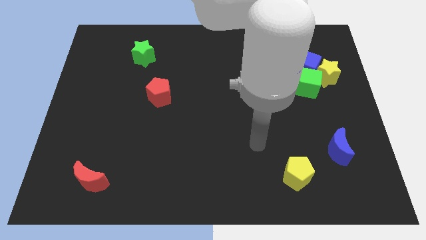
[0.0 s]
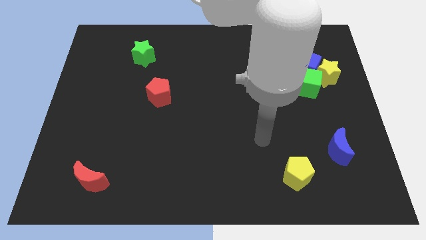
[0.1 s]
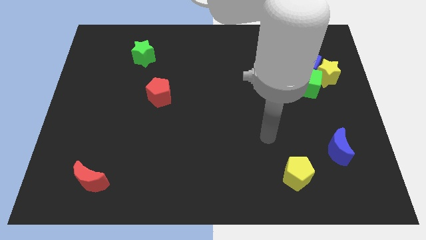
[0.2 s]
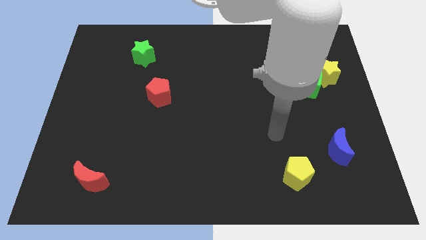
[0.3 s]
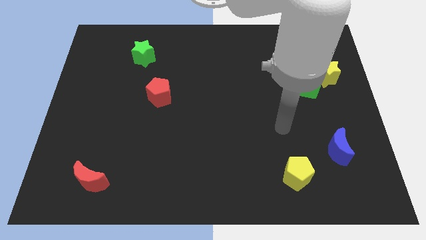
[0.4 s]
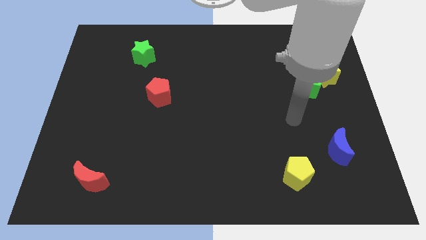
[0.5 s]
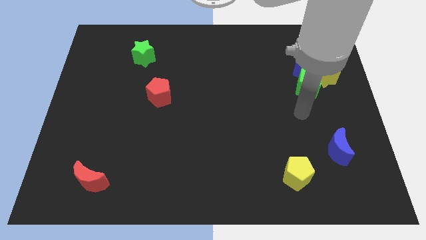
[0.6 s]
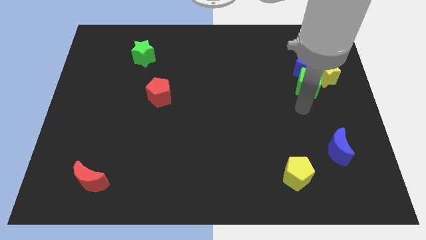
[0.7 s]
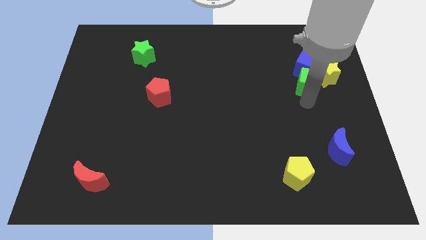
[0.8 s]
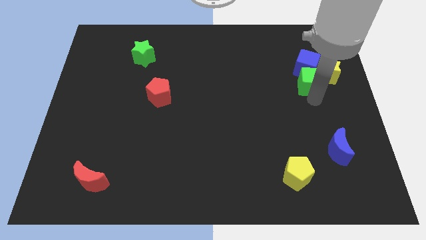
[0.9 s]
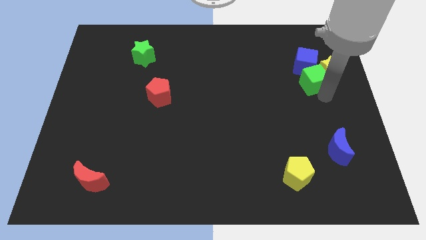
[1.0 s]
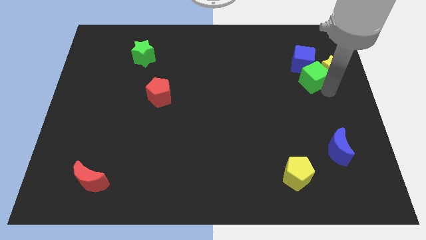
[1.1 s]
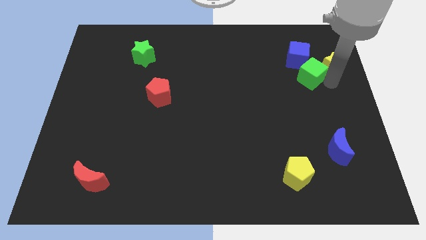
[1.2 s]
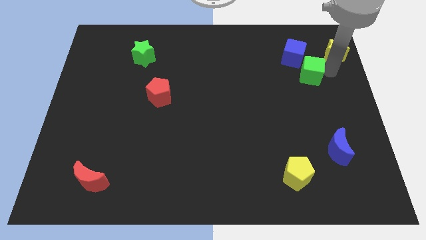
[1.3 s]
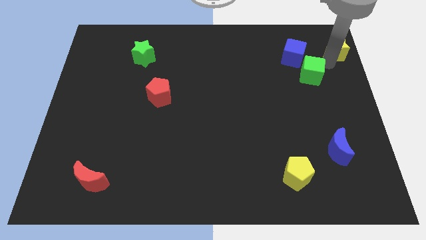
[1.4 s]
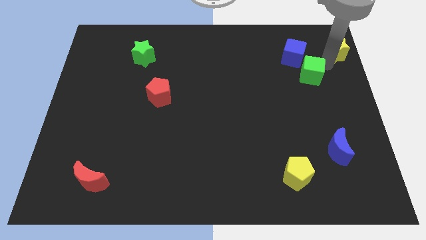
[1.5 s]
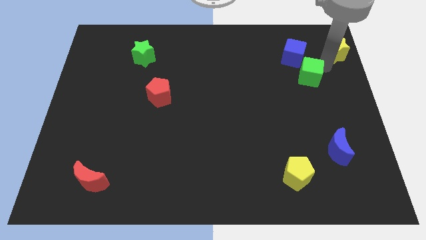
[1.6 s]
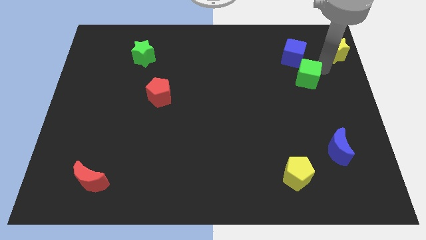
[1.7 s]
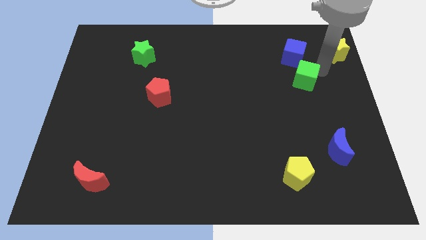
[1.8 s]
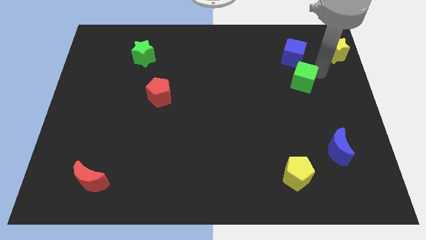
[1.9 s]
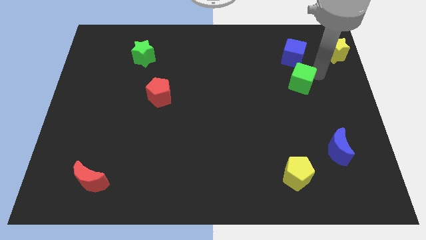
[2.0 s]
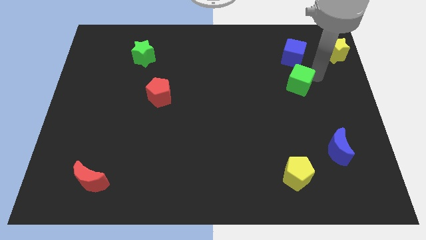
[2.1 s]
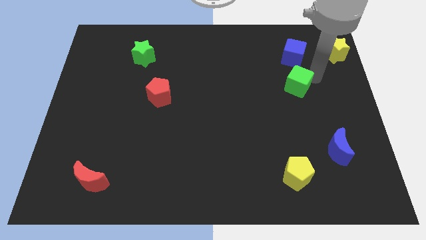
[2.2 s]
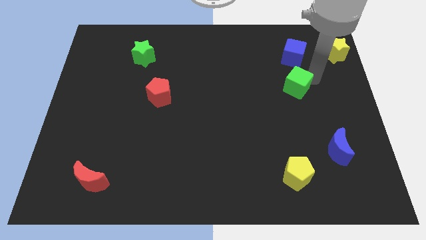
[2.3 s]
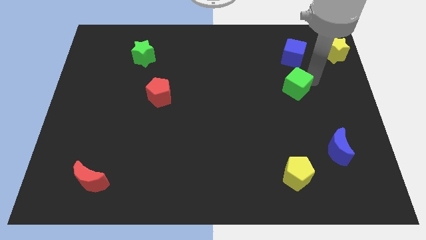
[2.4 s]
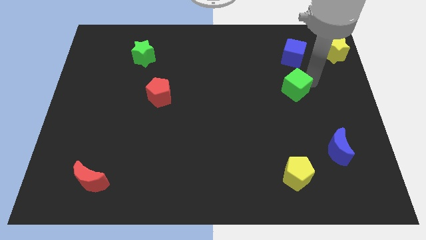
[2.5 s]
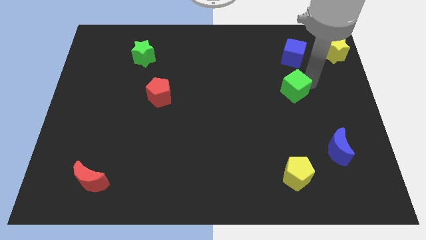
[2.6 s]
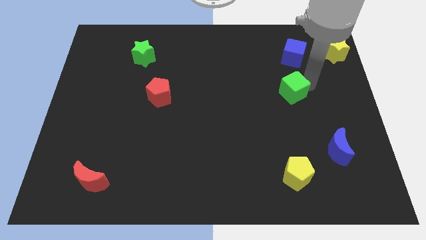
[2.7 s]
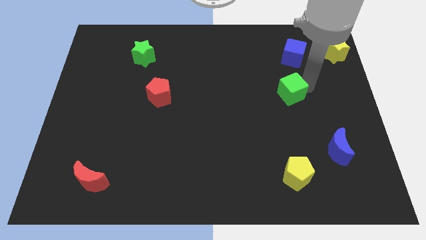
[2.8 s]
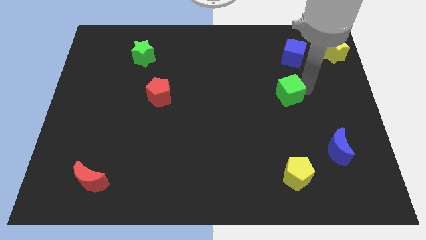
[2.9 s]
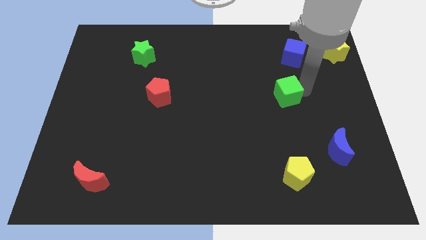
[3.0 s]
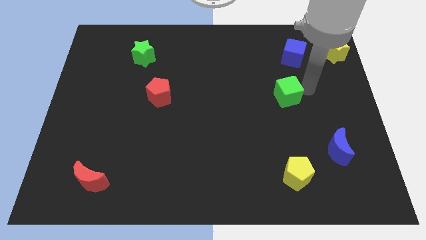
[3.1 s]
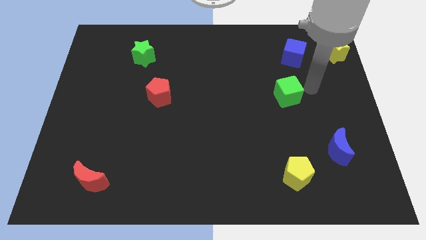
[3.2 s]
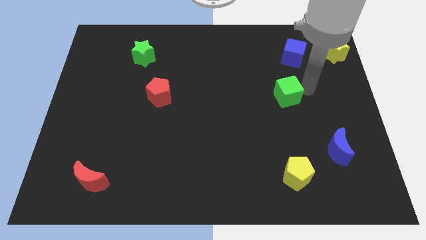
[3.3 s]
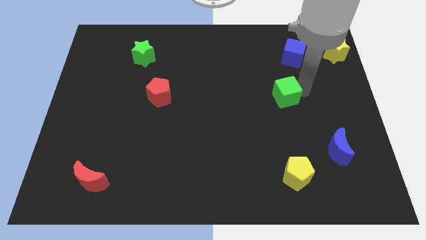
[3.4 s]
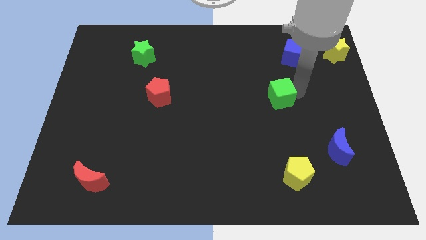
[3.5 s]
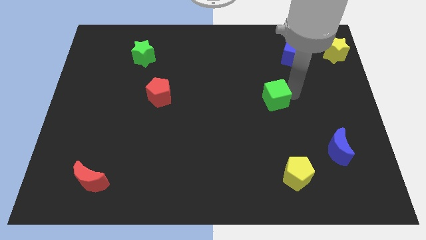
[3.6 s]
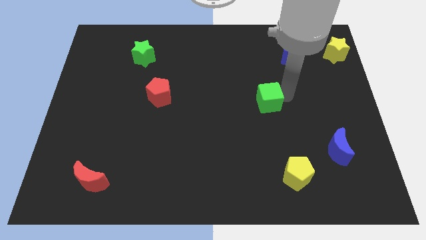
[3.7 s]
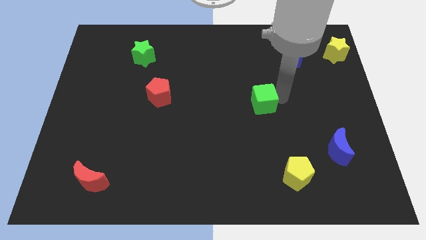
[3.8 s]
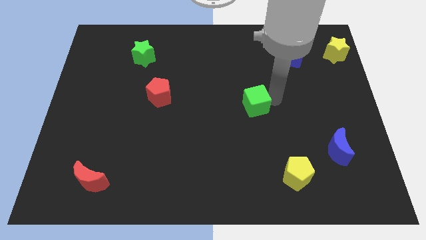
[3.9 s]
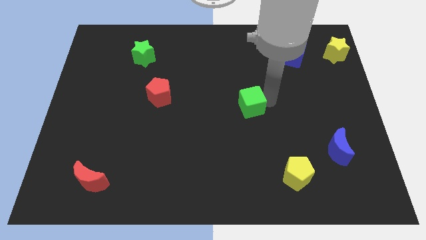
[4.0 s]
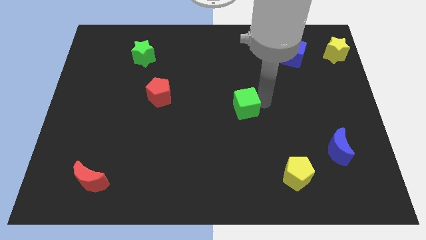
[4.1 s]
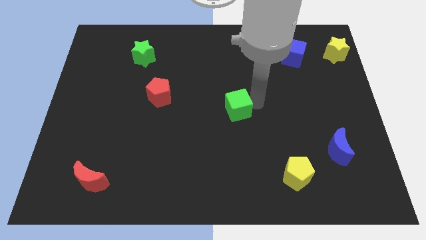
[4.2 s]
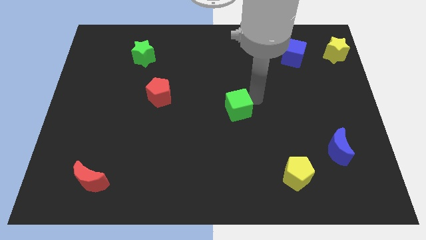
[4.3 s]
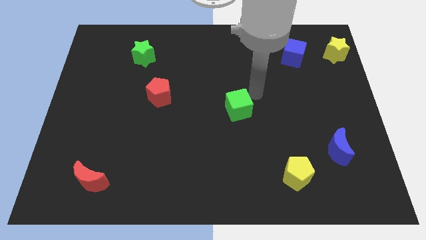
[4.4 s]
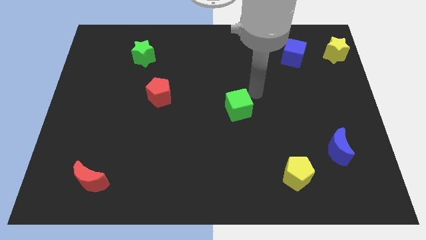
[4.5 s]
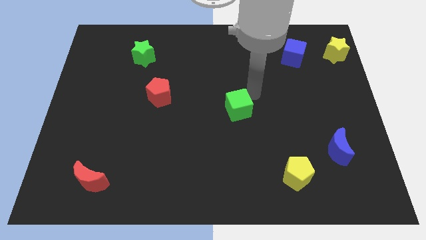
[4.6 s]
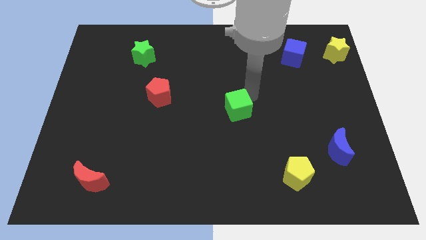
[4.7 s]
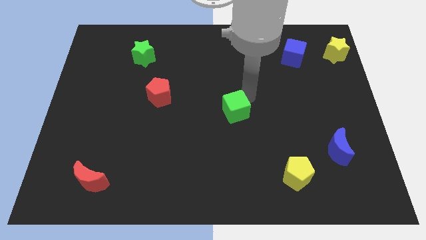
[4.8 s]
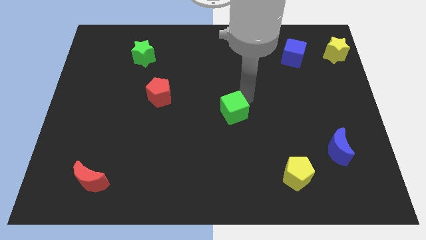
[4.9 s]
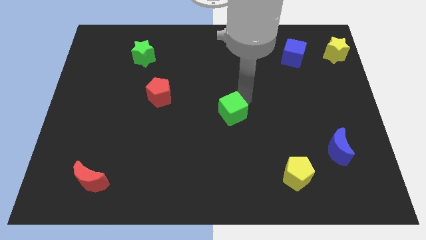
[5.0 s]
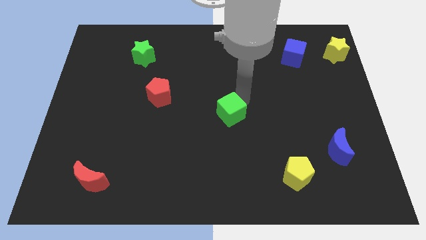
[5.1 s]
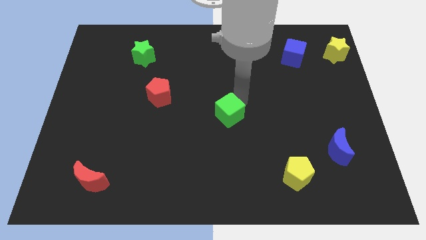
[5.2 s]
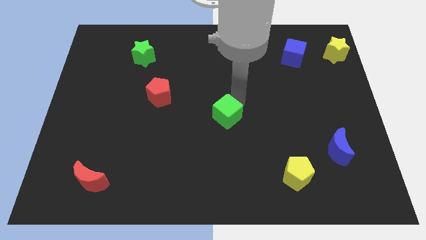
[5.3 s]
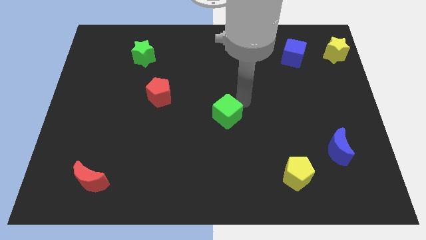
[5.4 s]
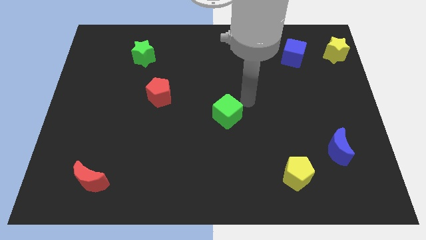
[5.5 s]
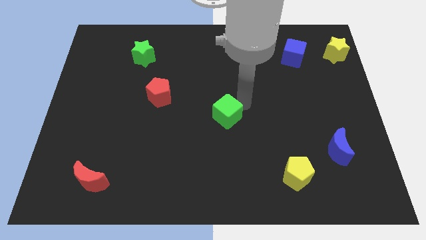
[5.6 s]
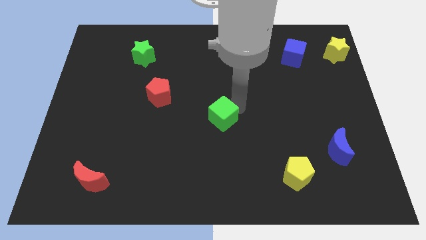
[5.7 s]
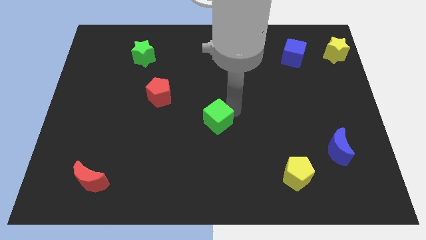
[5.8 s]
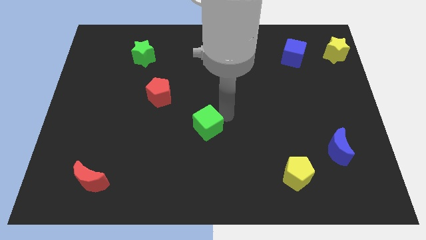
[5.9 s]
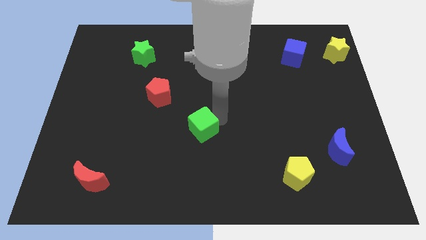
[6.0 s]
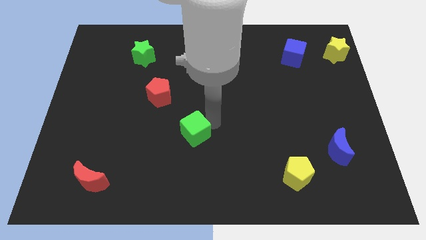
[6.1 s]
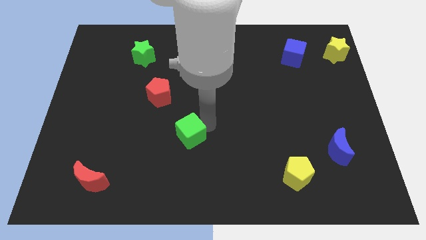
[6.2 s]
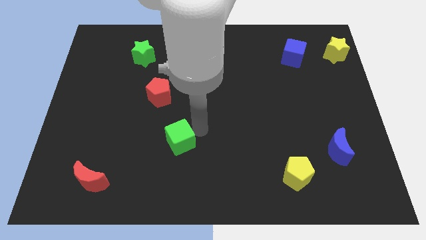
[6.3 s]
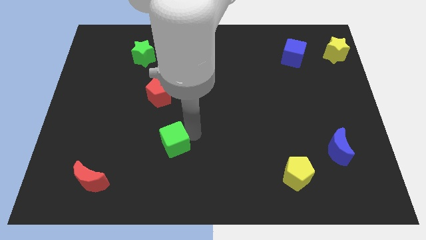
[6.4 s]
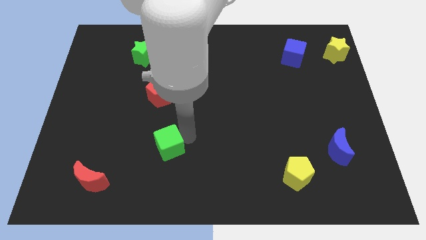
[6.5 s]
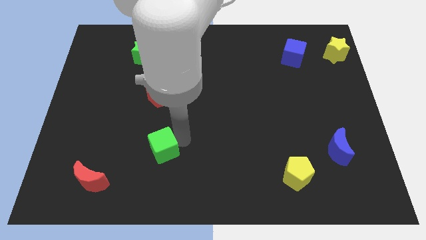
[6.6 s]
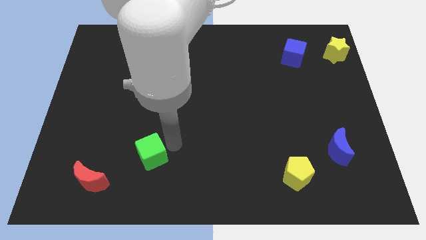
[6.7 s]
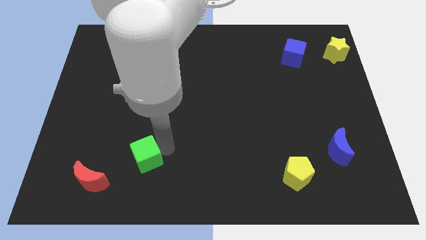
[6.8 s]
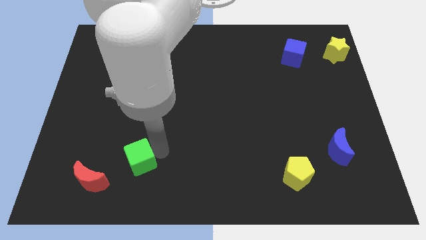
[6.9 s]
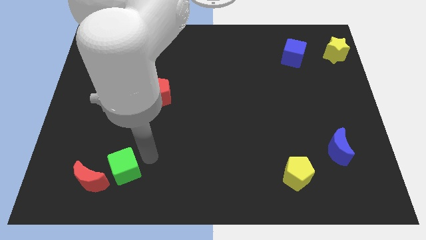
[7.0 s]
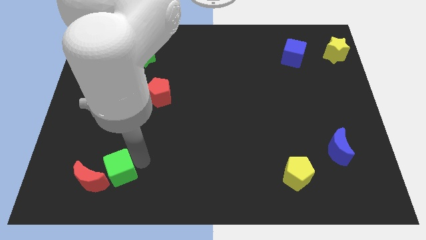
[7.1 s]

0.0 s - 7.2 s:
move the green cube to the red moon
